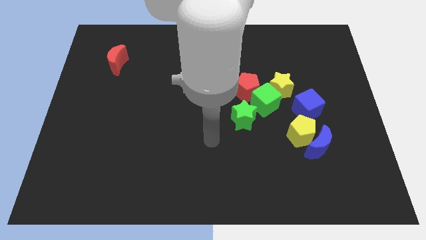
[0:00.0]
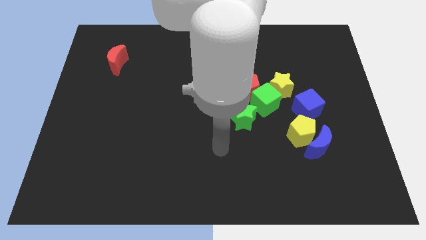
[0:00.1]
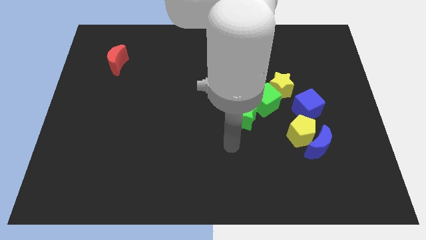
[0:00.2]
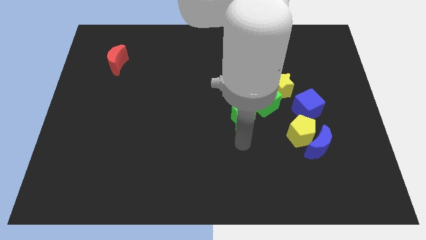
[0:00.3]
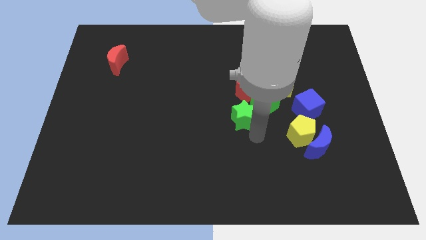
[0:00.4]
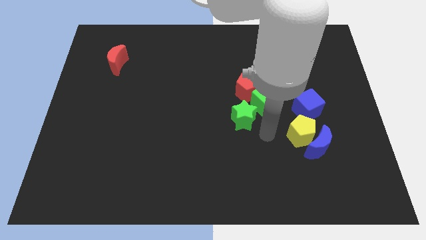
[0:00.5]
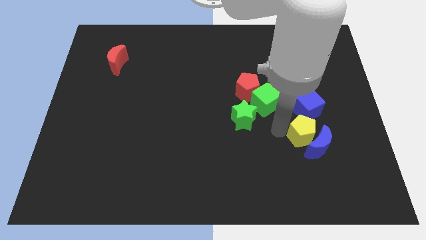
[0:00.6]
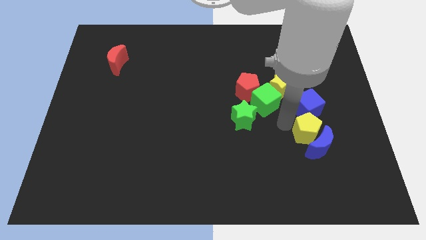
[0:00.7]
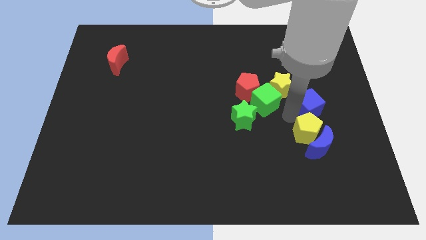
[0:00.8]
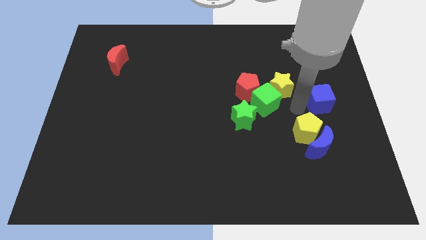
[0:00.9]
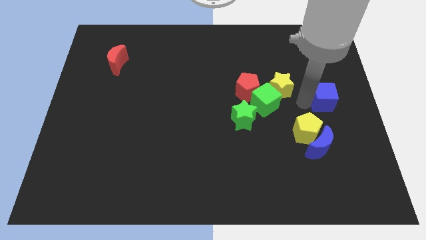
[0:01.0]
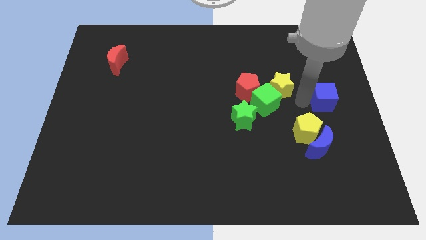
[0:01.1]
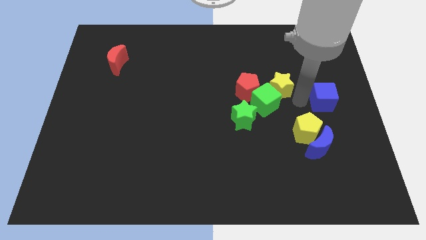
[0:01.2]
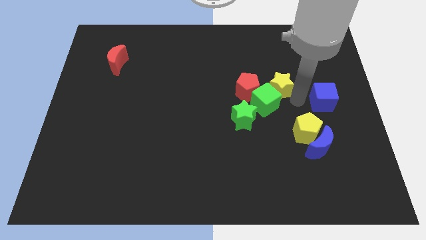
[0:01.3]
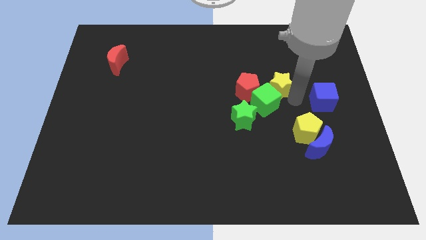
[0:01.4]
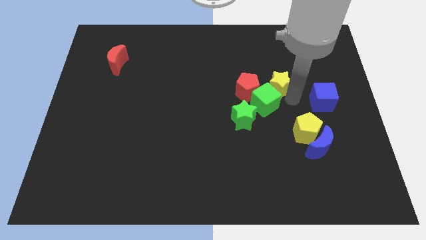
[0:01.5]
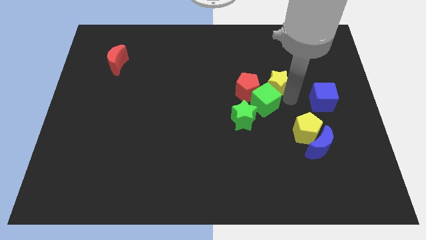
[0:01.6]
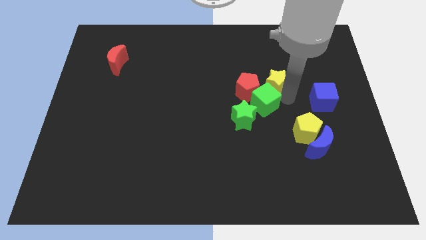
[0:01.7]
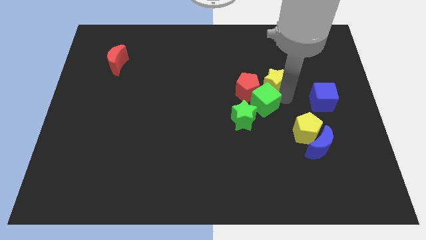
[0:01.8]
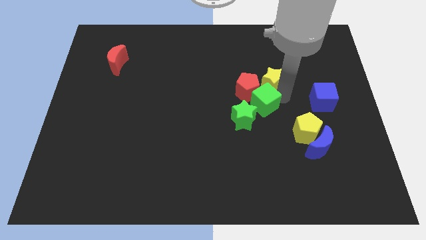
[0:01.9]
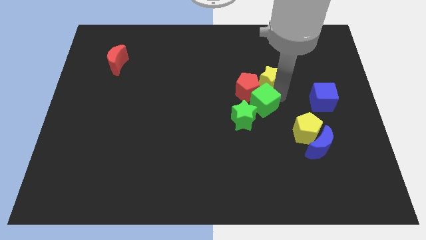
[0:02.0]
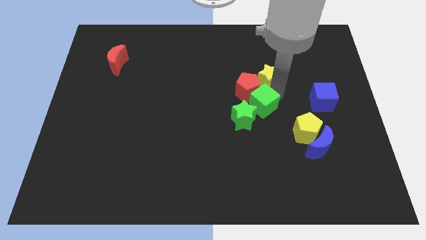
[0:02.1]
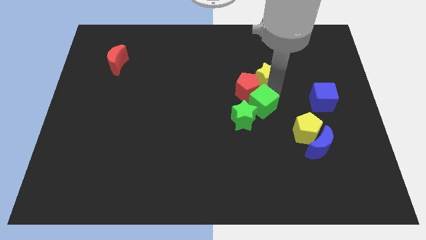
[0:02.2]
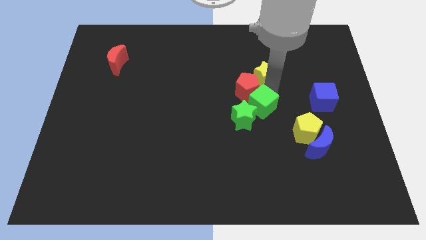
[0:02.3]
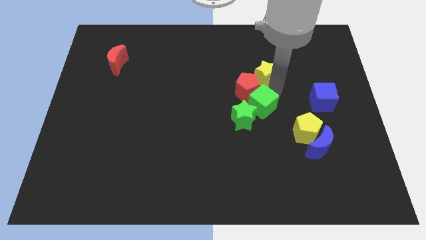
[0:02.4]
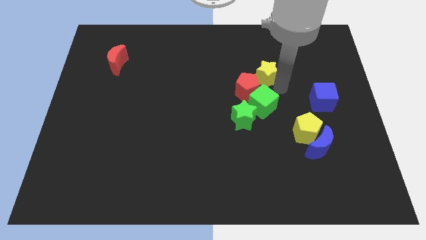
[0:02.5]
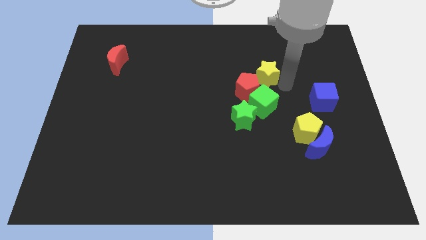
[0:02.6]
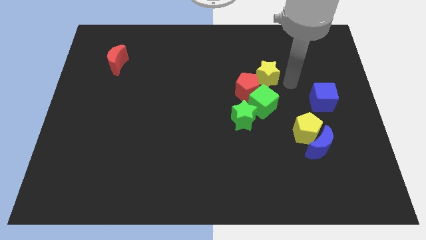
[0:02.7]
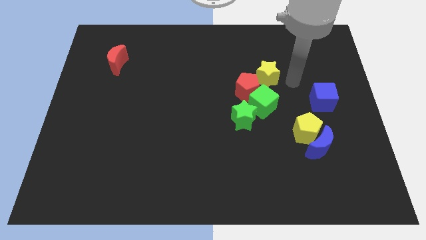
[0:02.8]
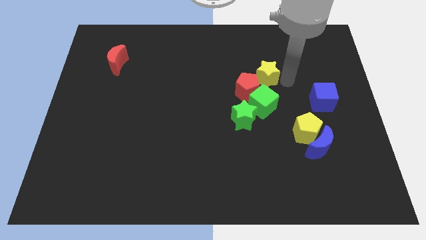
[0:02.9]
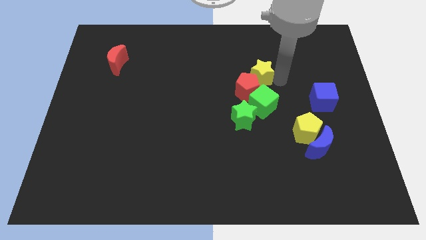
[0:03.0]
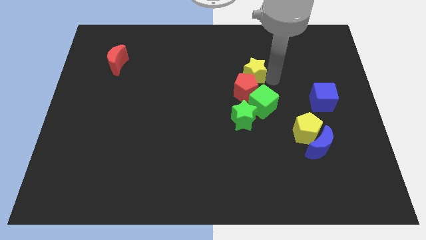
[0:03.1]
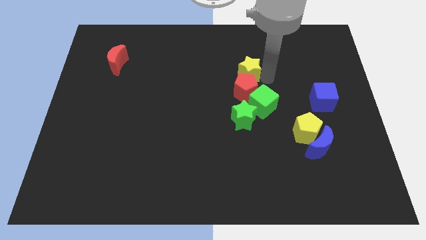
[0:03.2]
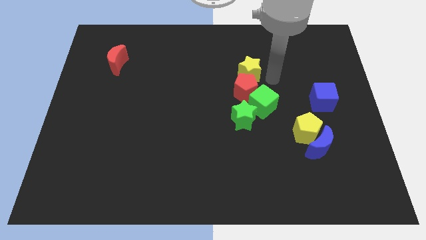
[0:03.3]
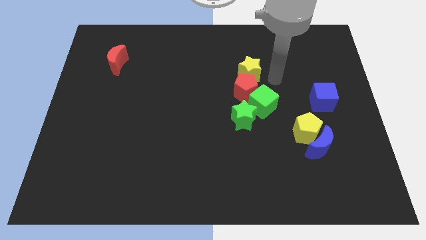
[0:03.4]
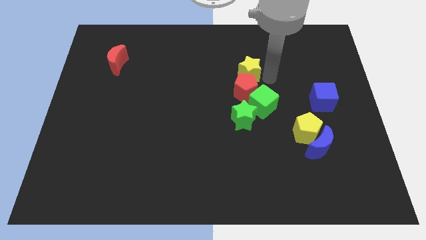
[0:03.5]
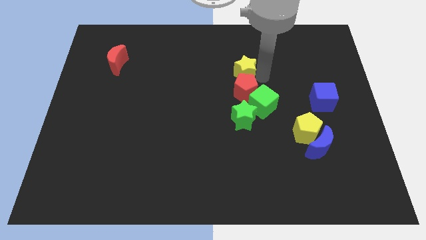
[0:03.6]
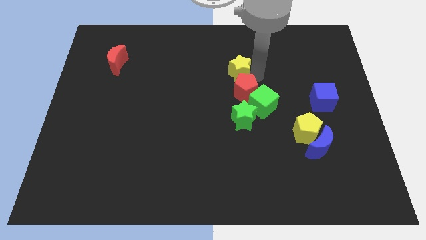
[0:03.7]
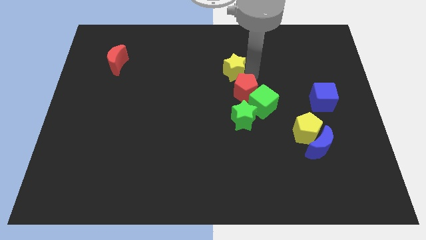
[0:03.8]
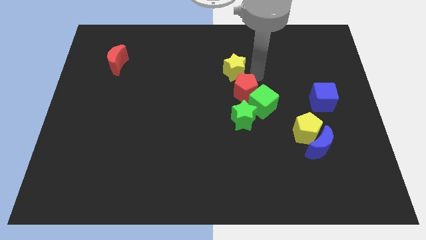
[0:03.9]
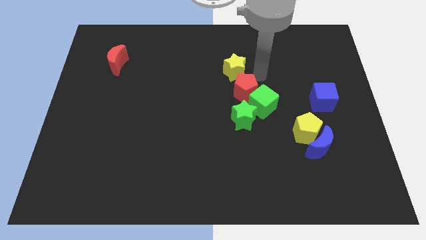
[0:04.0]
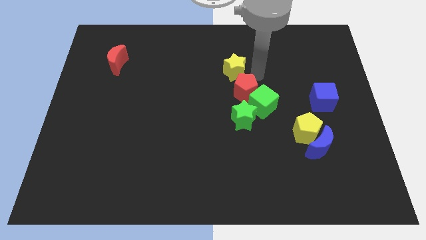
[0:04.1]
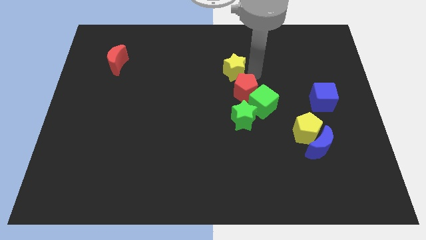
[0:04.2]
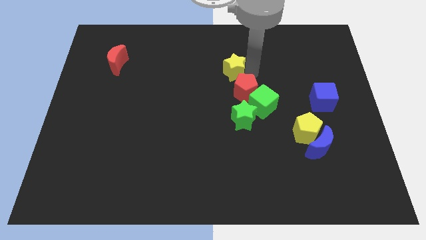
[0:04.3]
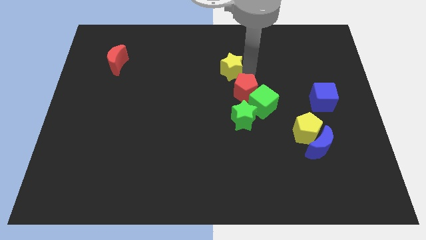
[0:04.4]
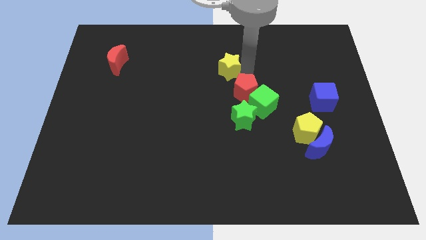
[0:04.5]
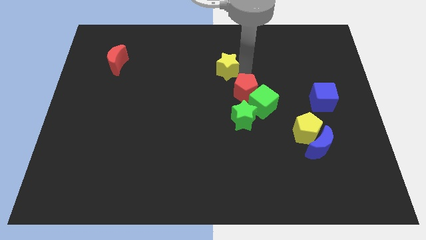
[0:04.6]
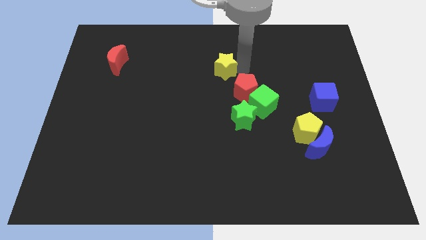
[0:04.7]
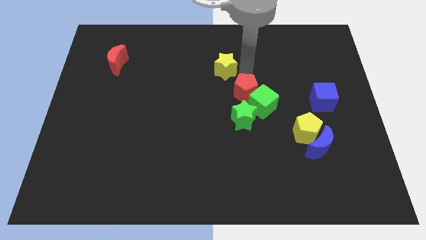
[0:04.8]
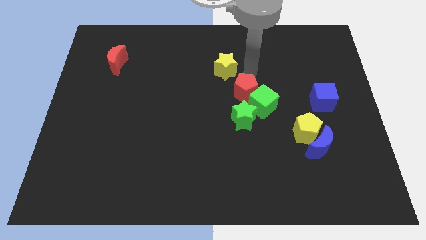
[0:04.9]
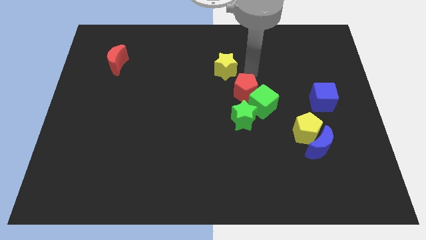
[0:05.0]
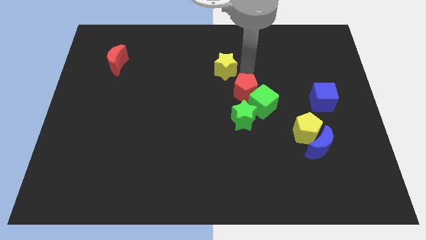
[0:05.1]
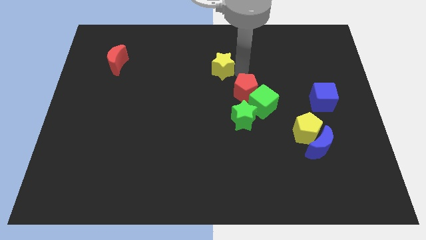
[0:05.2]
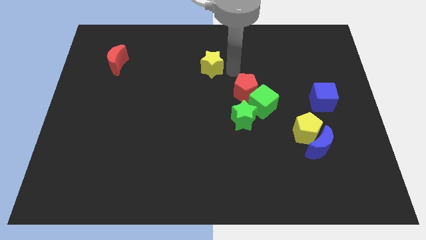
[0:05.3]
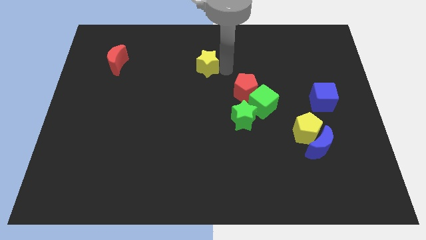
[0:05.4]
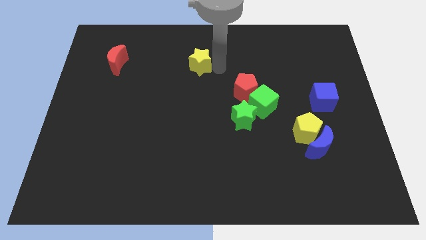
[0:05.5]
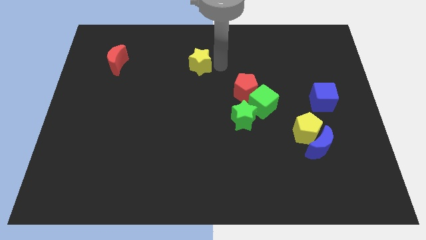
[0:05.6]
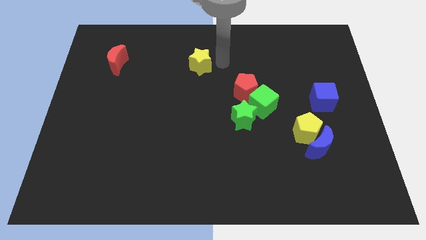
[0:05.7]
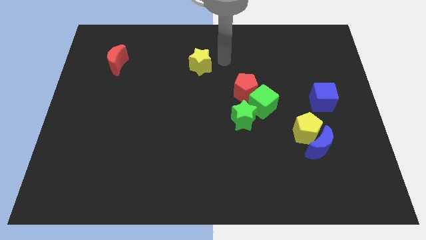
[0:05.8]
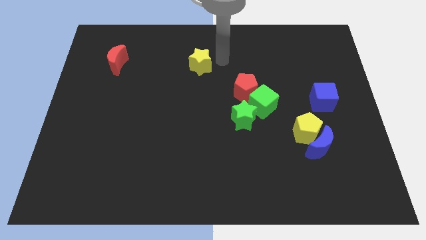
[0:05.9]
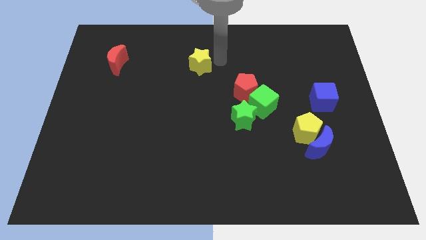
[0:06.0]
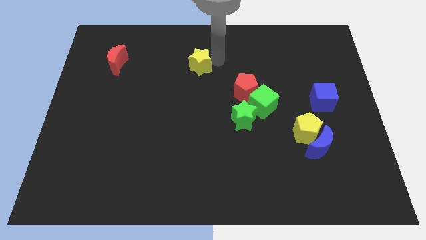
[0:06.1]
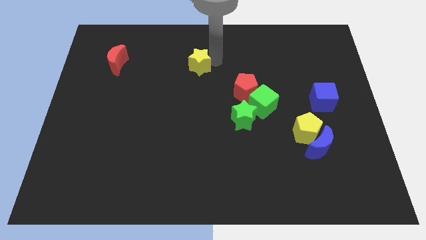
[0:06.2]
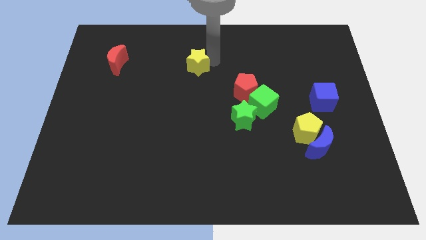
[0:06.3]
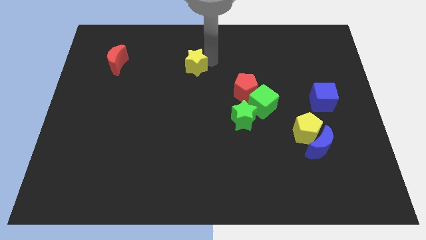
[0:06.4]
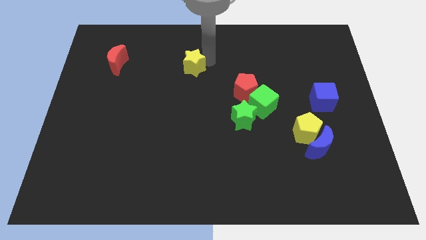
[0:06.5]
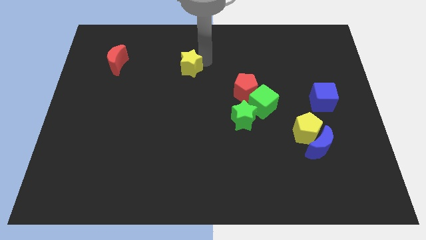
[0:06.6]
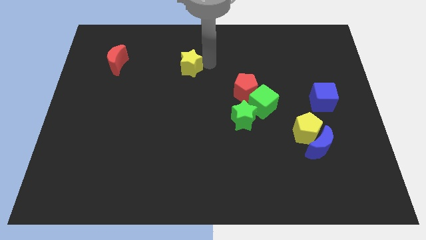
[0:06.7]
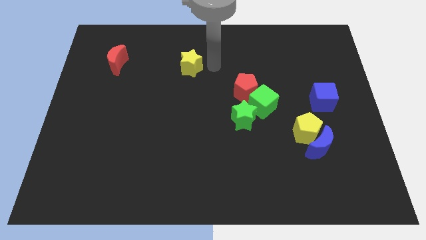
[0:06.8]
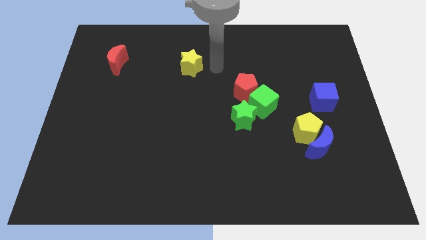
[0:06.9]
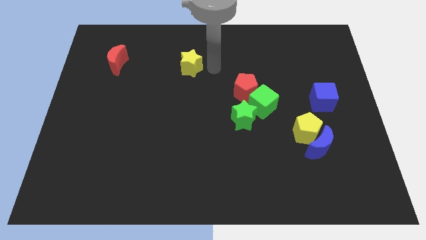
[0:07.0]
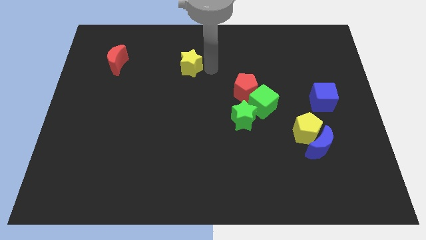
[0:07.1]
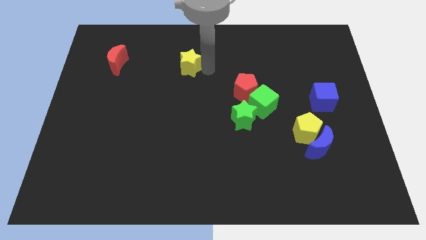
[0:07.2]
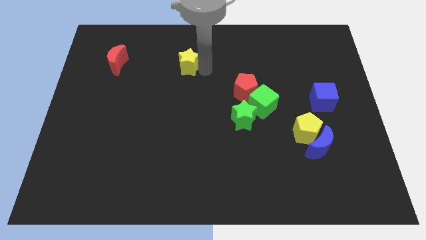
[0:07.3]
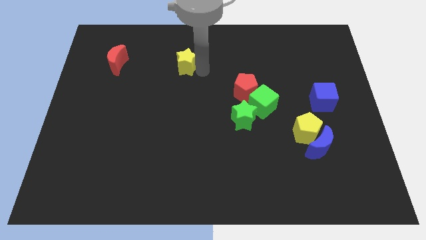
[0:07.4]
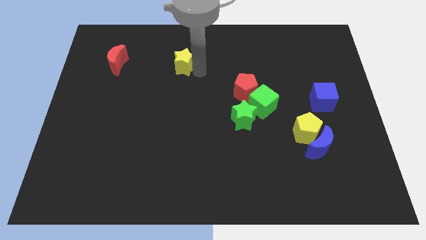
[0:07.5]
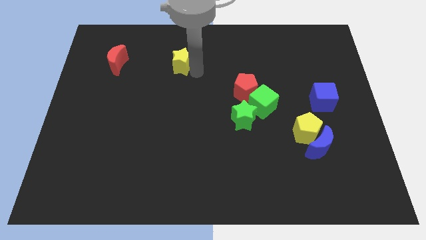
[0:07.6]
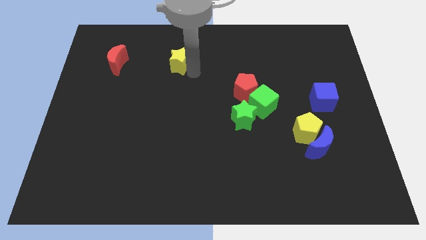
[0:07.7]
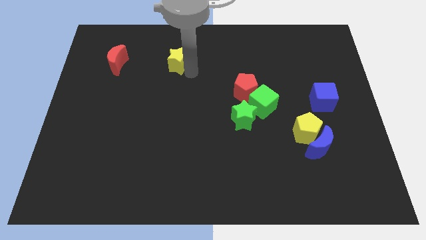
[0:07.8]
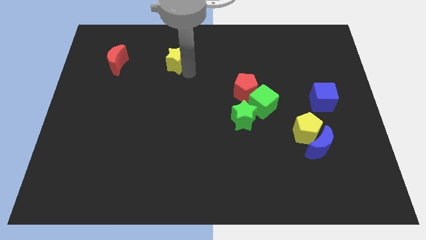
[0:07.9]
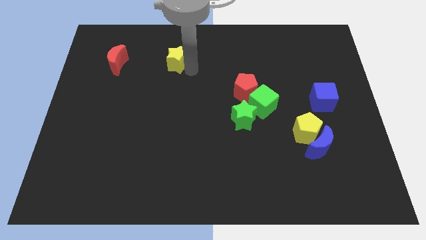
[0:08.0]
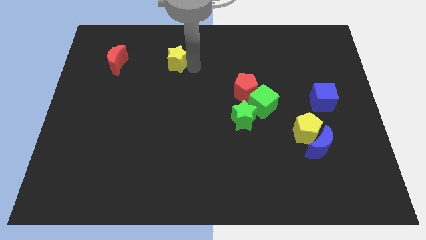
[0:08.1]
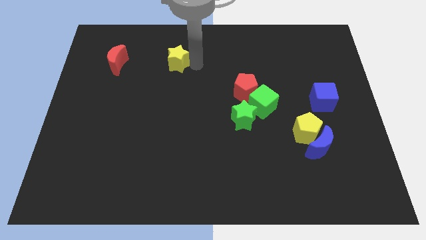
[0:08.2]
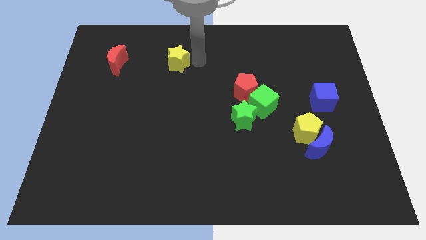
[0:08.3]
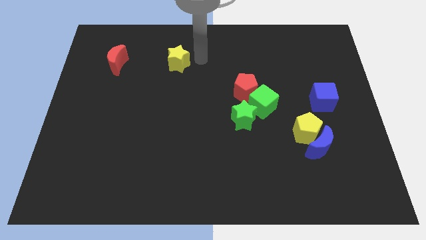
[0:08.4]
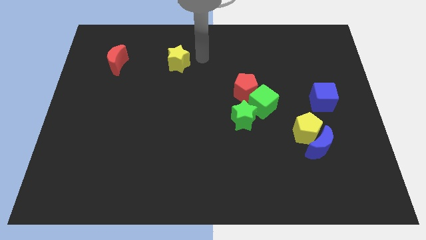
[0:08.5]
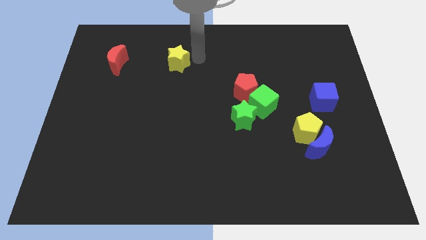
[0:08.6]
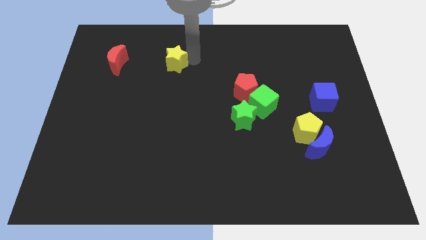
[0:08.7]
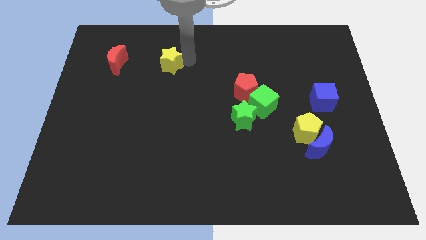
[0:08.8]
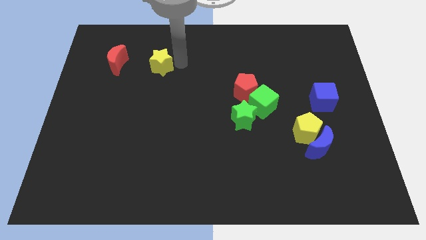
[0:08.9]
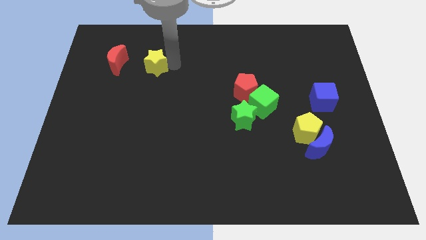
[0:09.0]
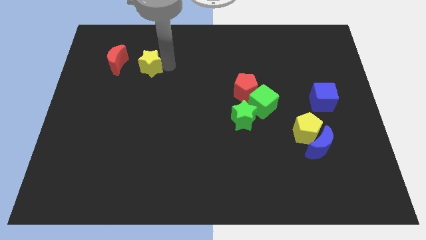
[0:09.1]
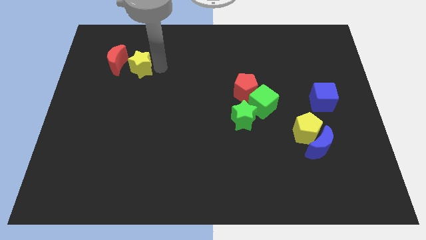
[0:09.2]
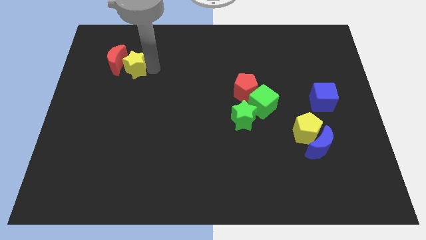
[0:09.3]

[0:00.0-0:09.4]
put the yellow star close to the red moon
